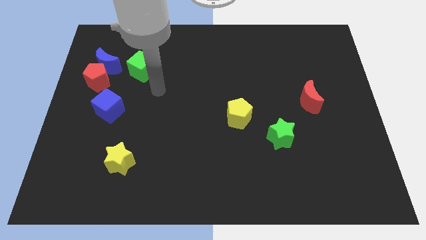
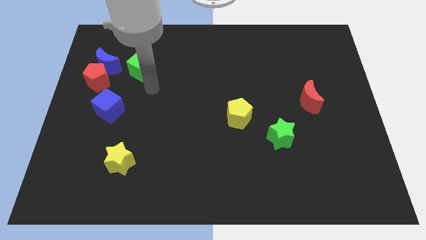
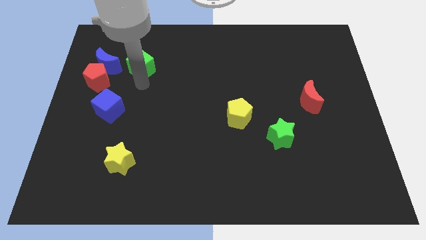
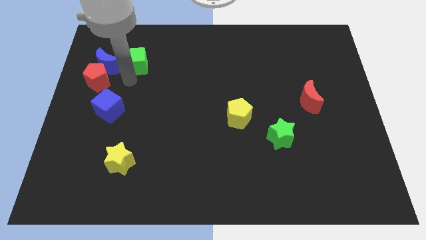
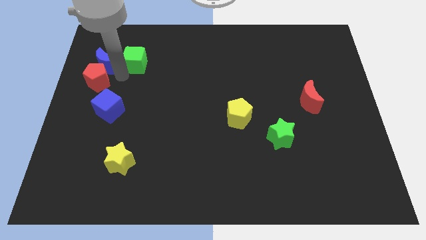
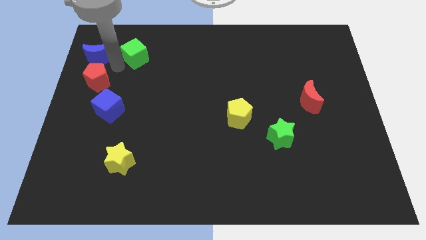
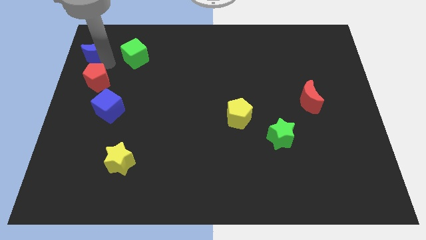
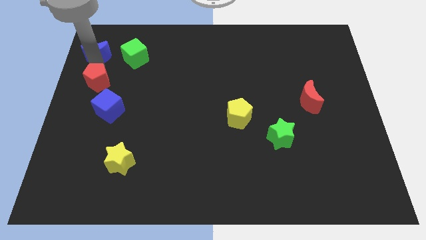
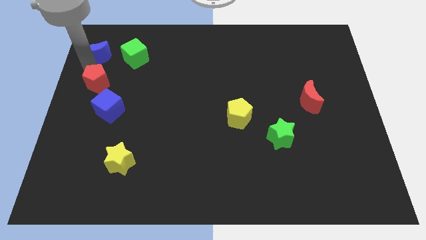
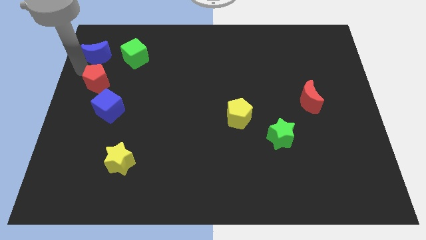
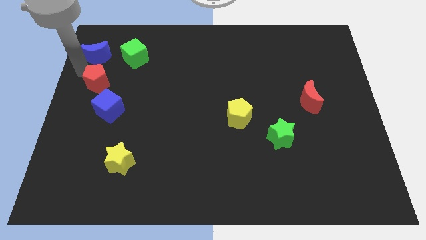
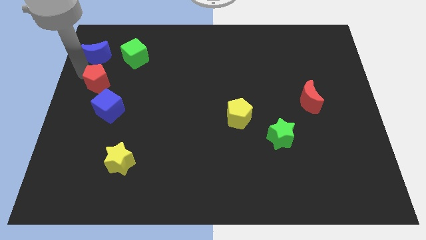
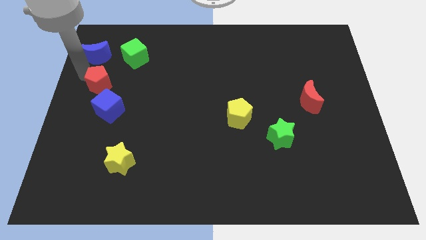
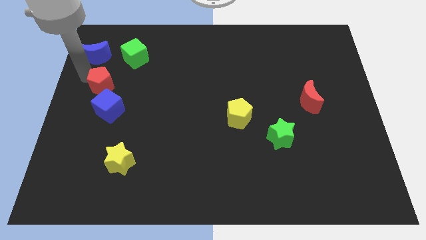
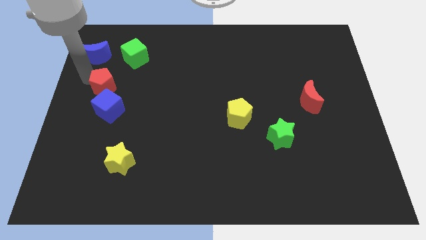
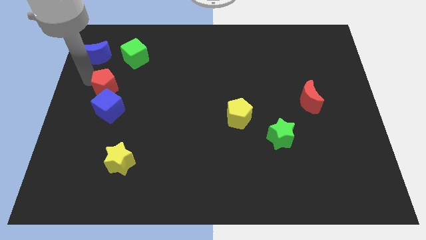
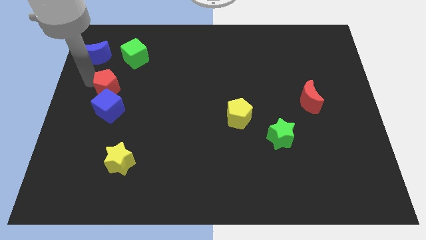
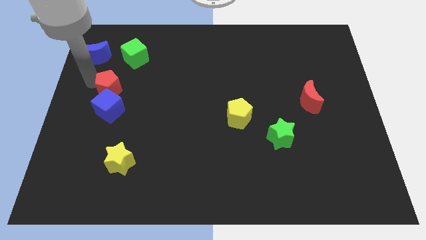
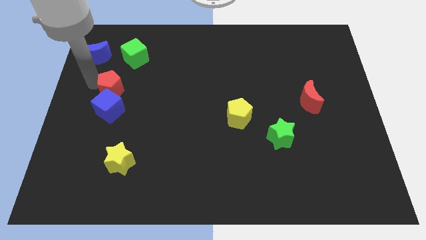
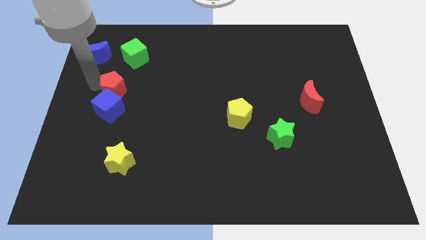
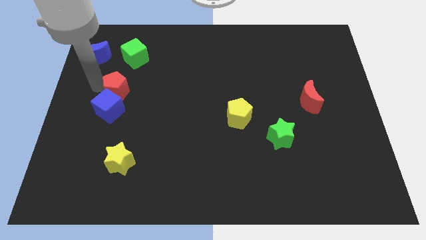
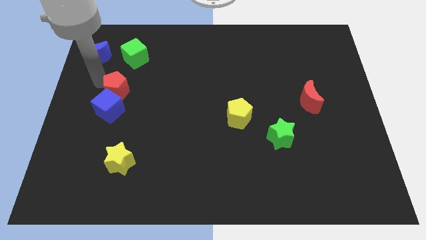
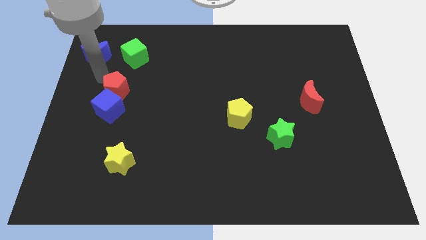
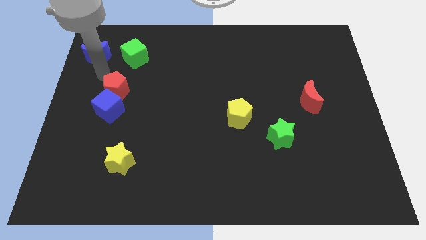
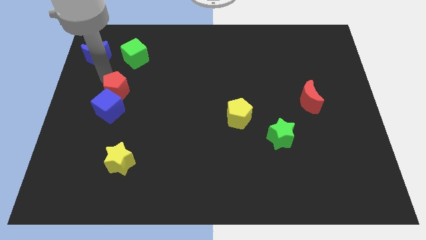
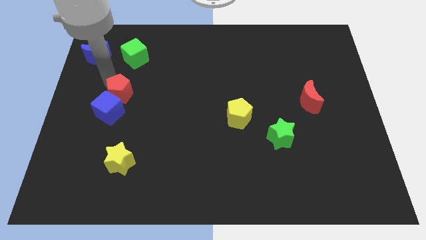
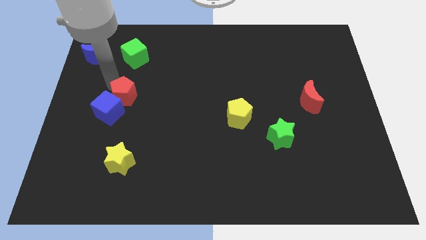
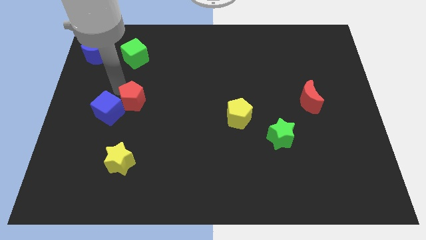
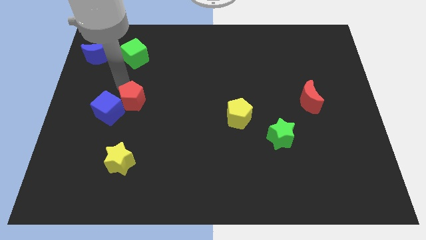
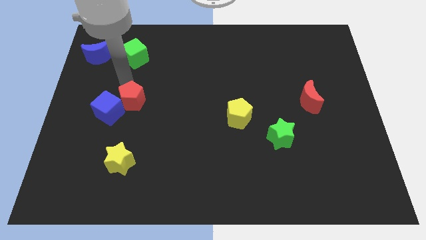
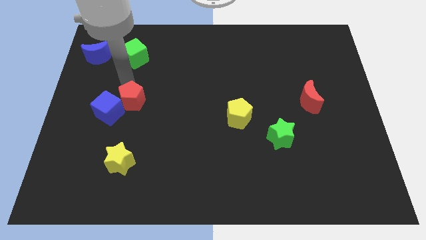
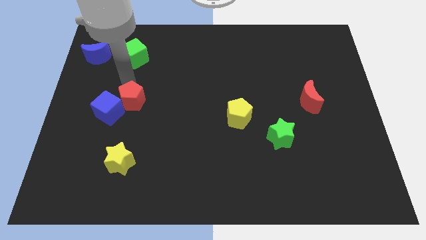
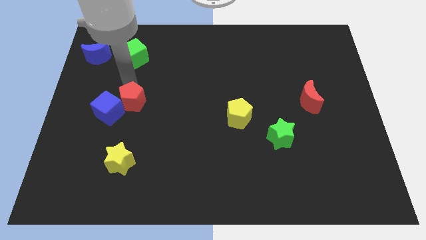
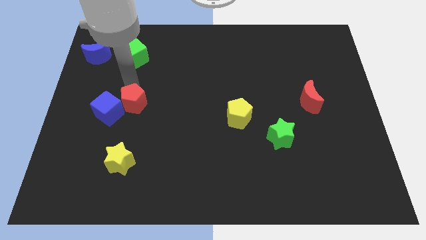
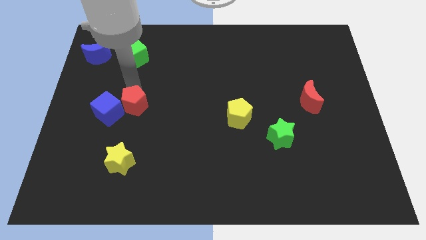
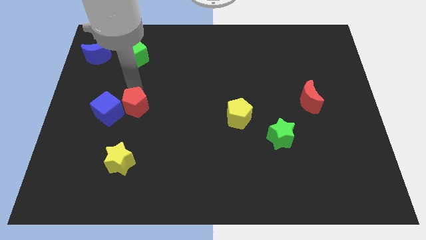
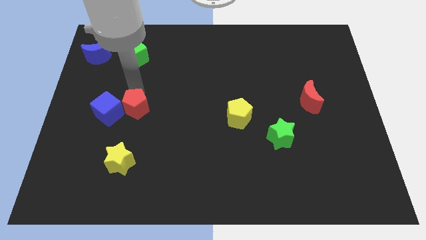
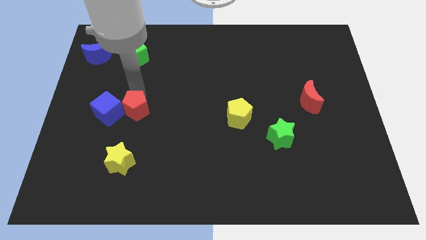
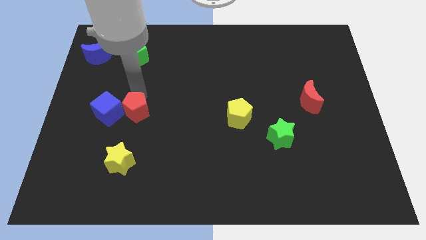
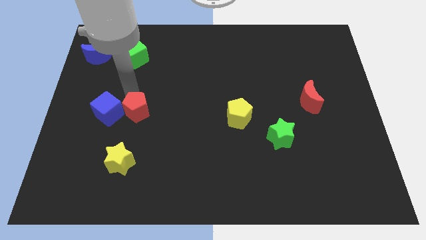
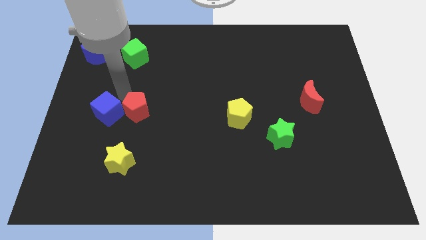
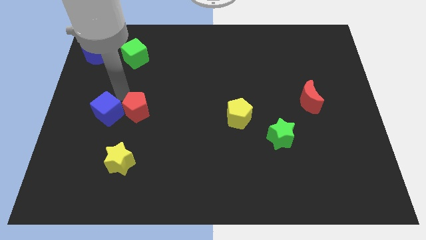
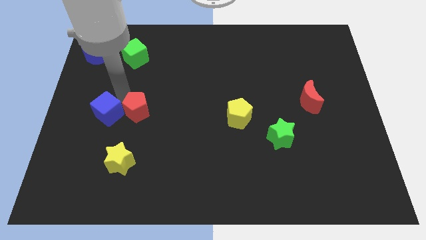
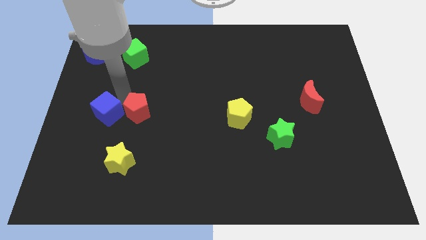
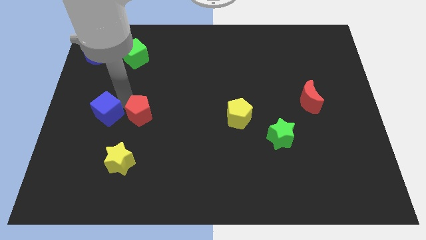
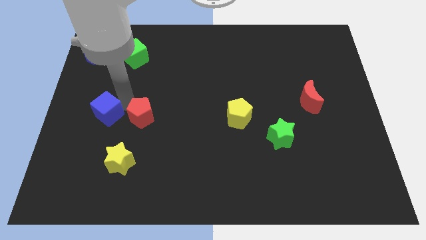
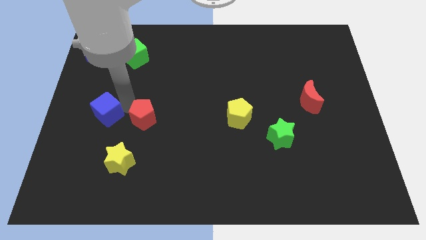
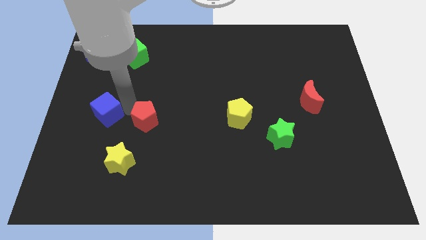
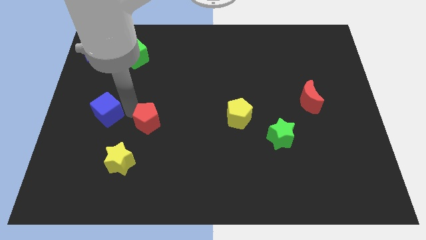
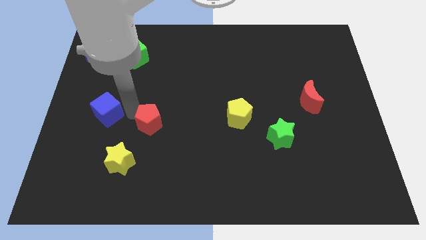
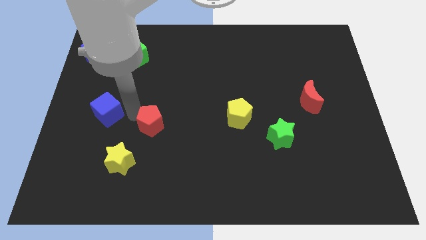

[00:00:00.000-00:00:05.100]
move the red pentagon downwards and then to the right

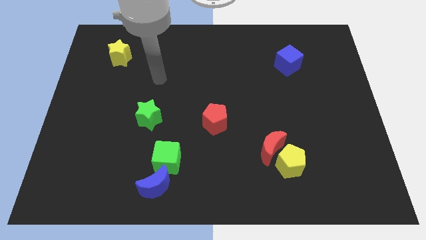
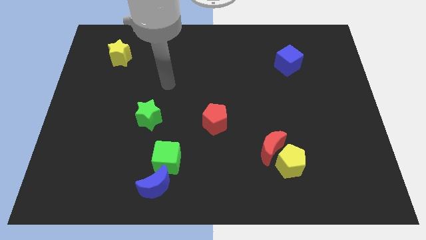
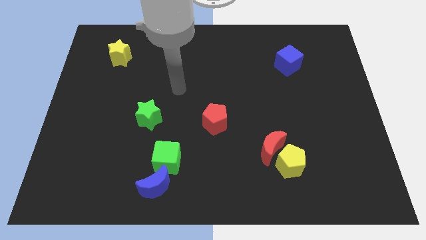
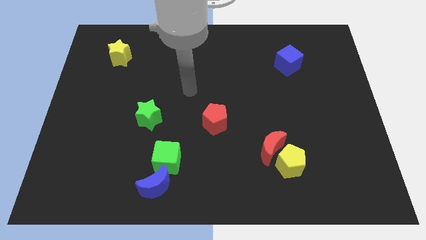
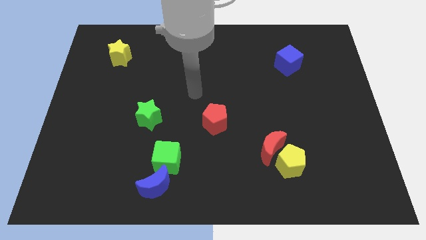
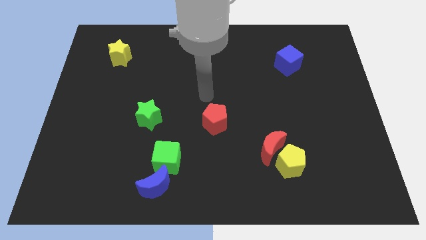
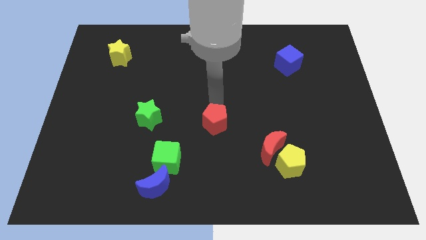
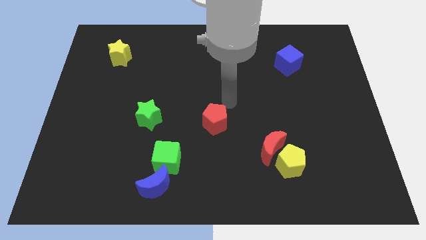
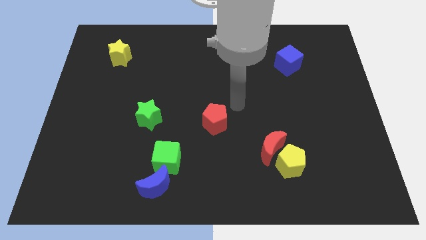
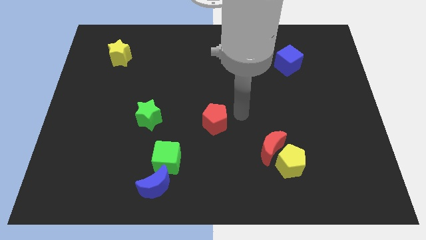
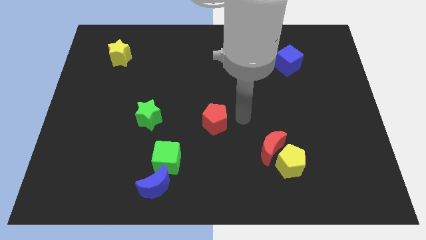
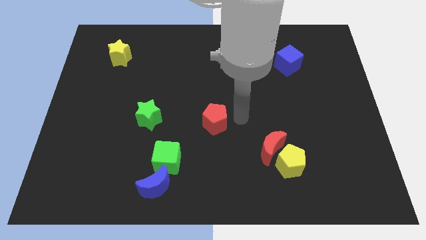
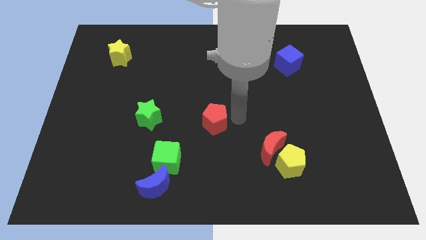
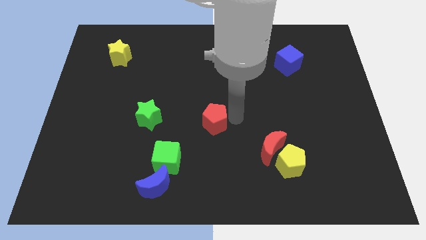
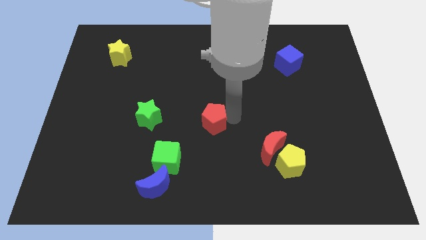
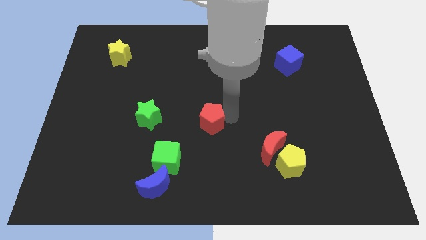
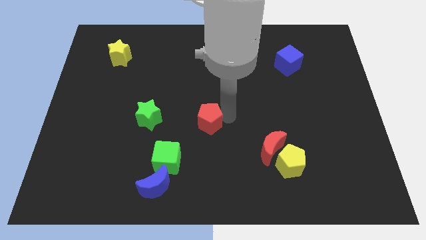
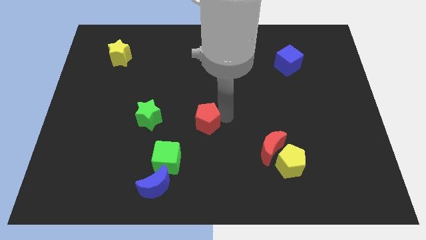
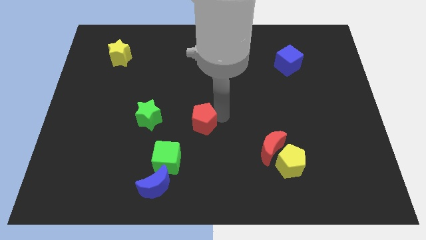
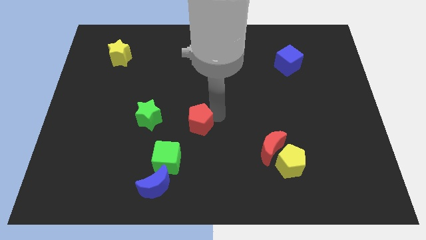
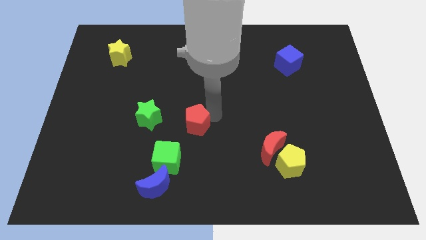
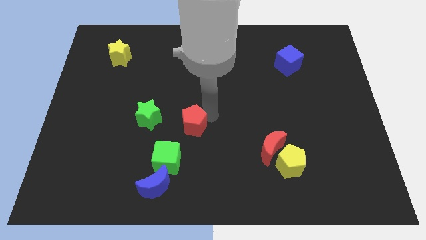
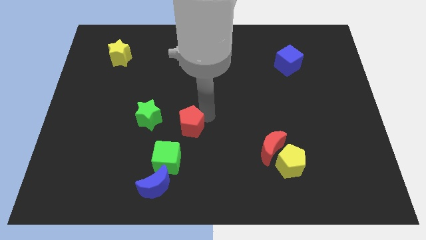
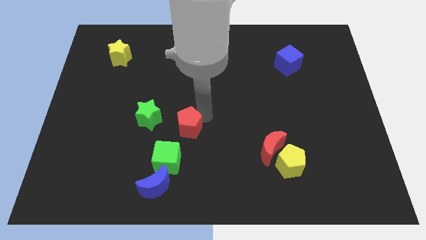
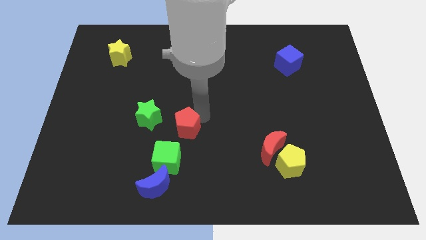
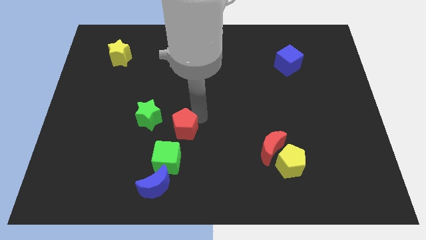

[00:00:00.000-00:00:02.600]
move the red pentagon left a little

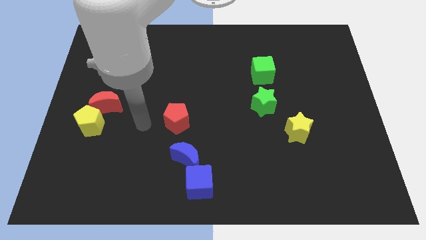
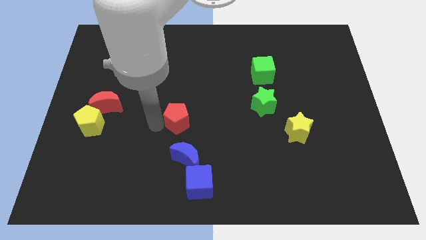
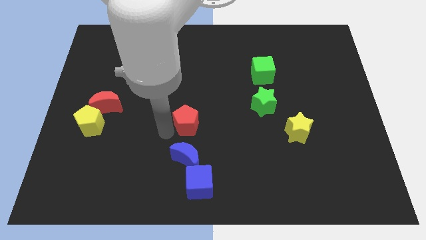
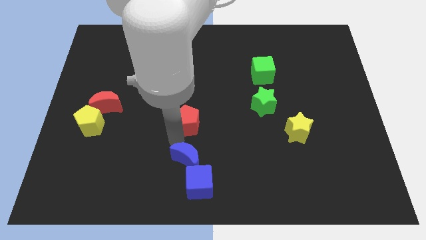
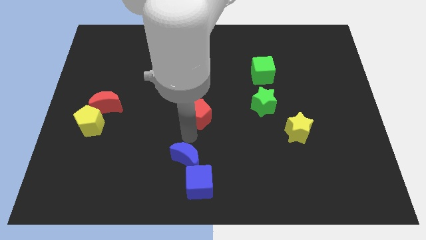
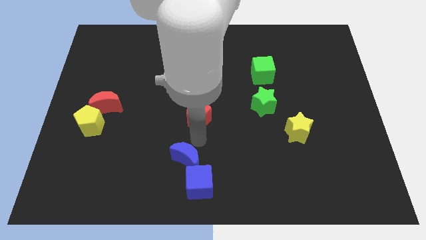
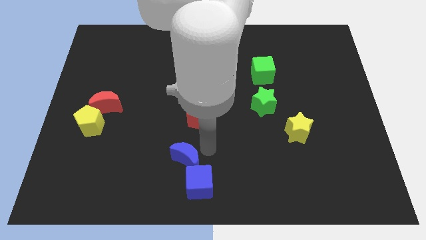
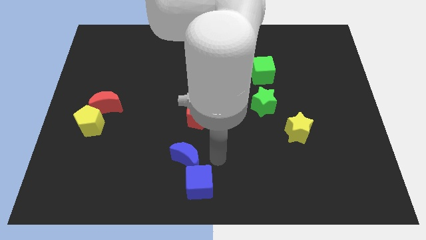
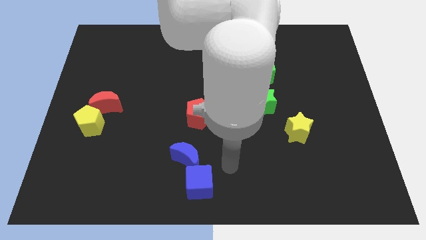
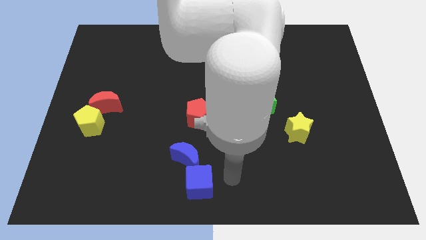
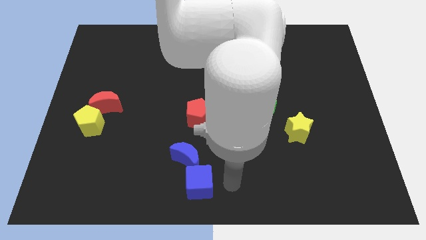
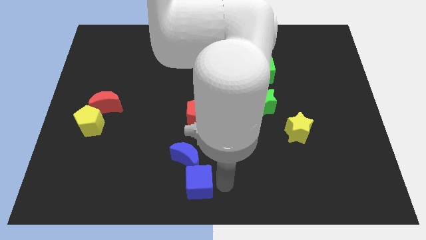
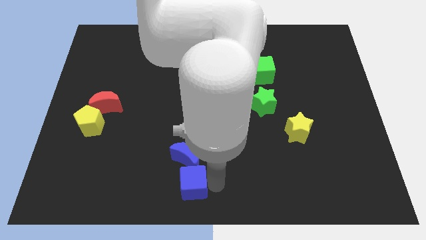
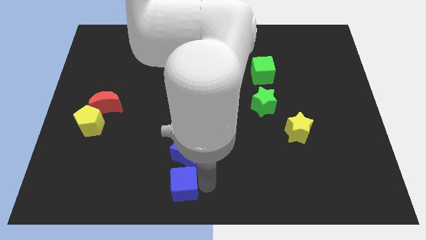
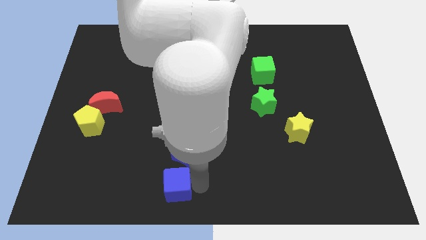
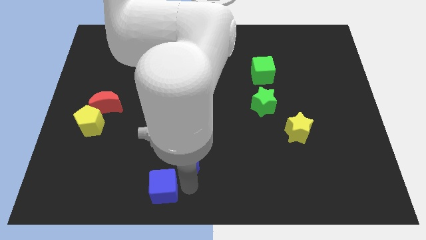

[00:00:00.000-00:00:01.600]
push the blue cube to the left somewhat
